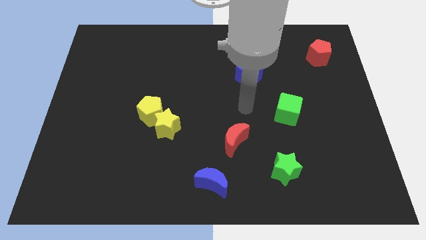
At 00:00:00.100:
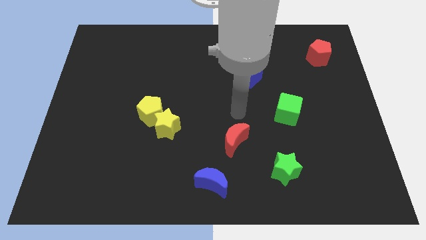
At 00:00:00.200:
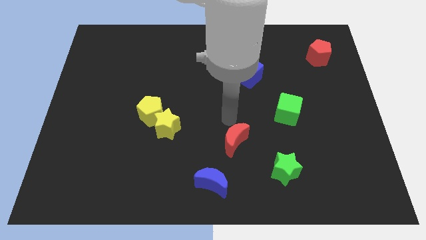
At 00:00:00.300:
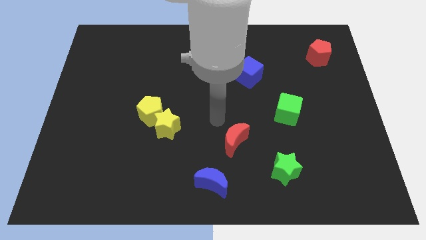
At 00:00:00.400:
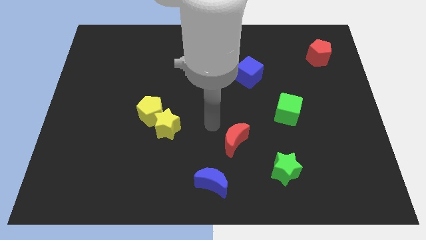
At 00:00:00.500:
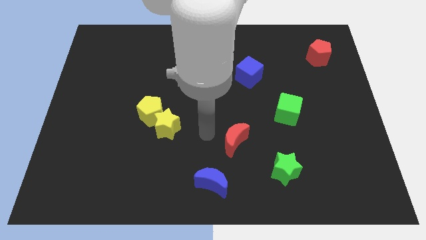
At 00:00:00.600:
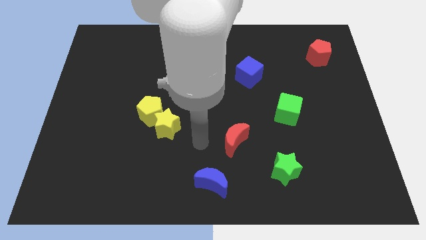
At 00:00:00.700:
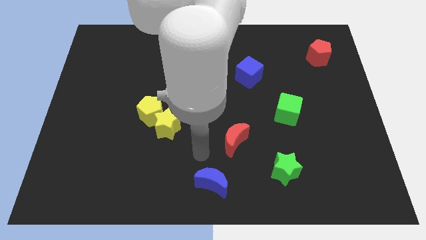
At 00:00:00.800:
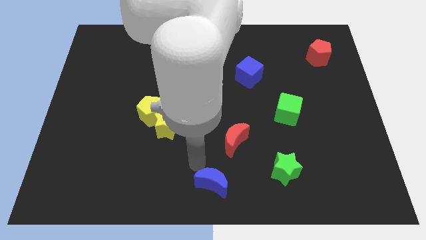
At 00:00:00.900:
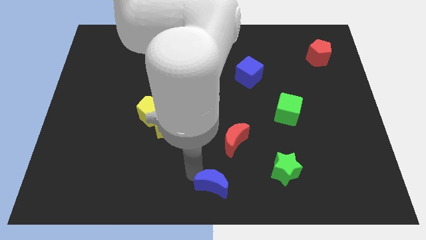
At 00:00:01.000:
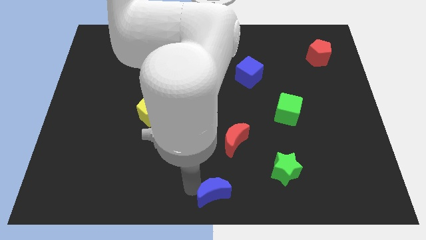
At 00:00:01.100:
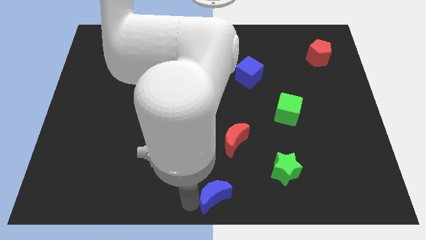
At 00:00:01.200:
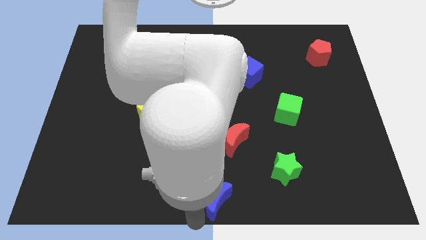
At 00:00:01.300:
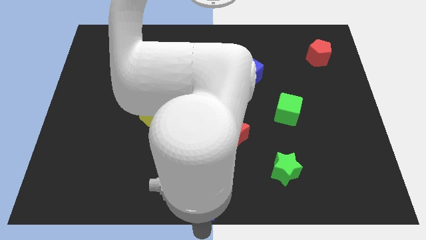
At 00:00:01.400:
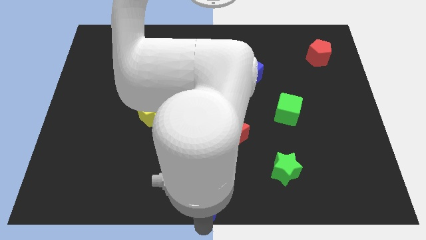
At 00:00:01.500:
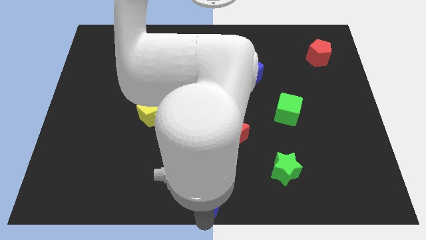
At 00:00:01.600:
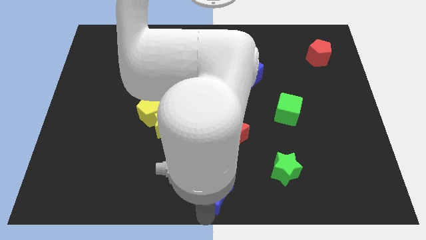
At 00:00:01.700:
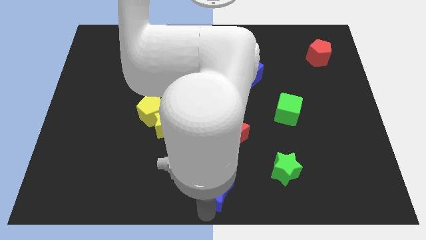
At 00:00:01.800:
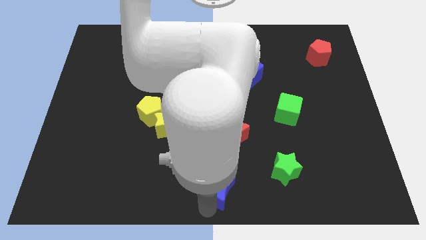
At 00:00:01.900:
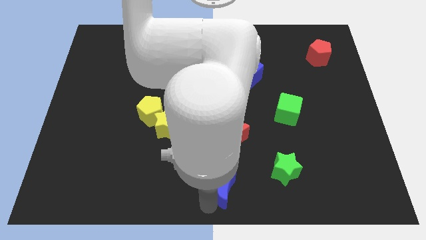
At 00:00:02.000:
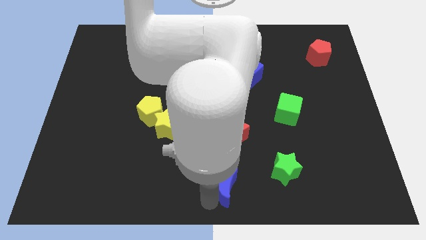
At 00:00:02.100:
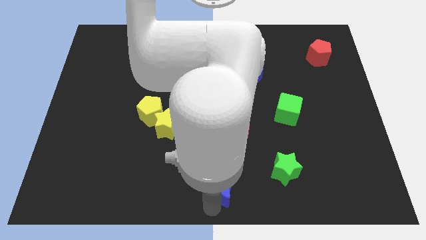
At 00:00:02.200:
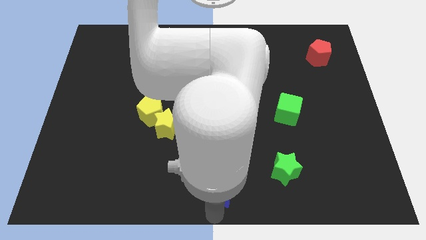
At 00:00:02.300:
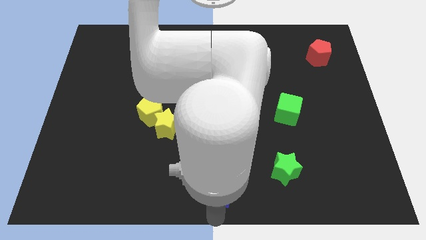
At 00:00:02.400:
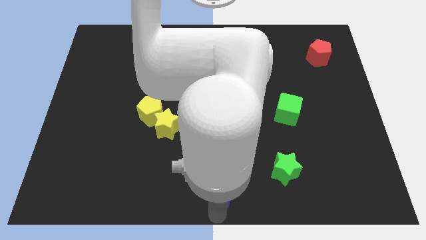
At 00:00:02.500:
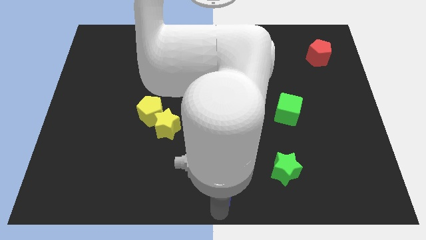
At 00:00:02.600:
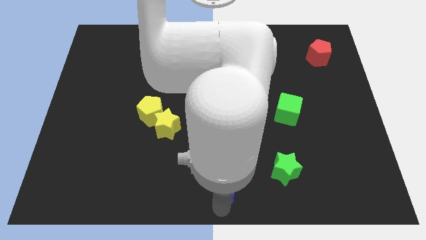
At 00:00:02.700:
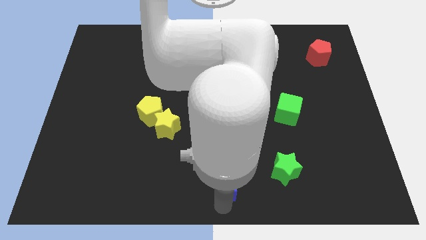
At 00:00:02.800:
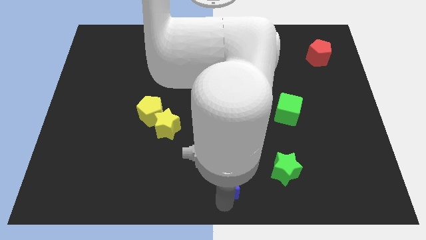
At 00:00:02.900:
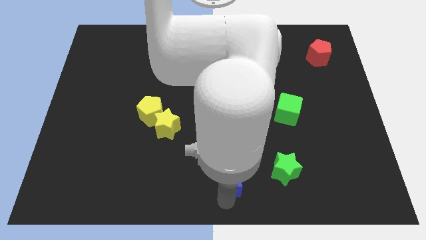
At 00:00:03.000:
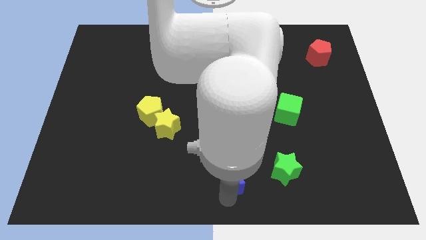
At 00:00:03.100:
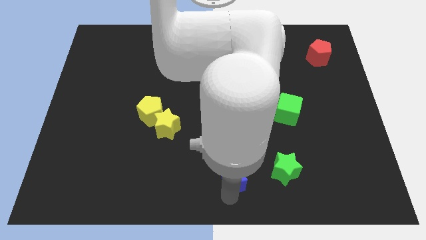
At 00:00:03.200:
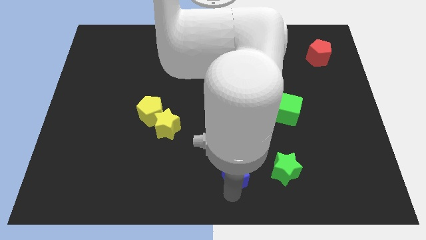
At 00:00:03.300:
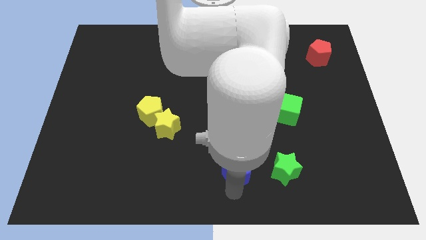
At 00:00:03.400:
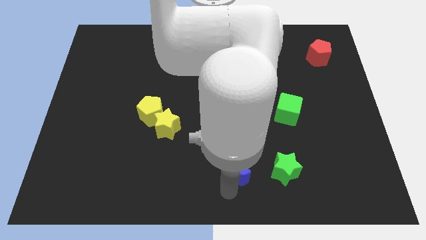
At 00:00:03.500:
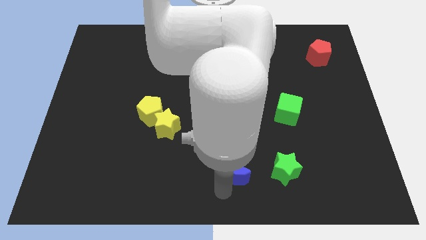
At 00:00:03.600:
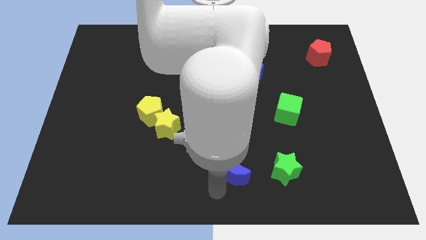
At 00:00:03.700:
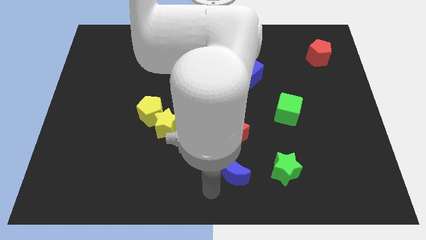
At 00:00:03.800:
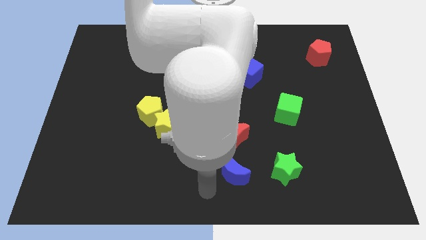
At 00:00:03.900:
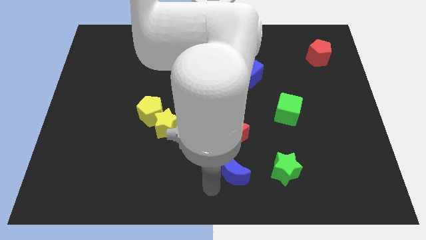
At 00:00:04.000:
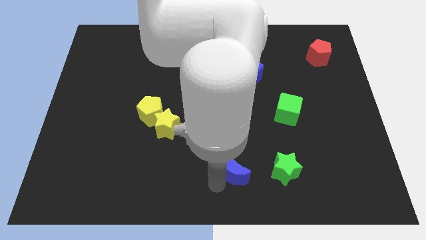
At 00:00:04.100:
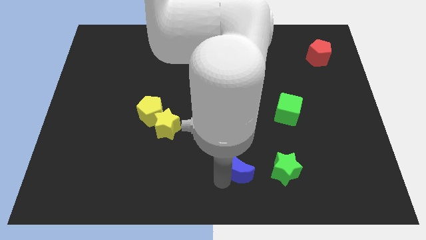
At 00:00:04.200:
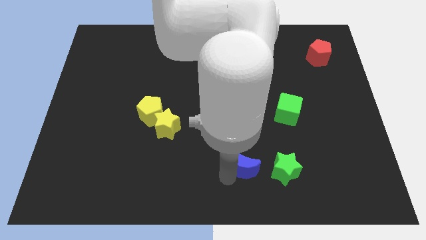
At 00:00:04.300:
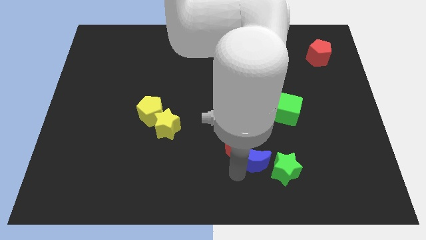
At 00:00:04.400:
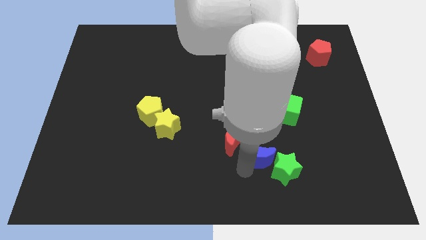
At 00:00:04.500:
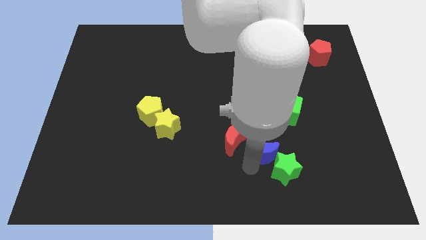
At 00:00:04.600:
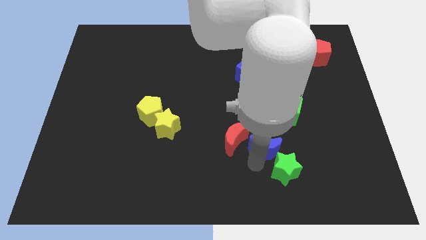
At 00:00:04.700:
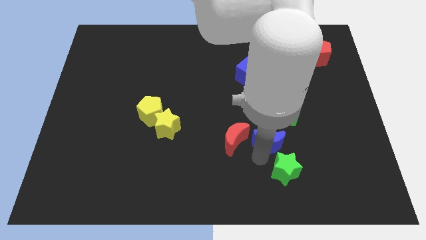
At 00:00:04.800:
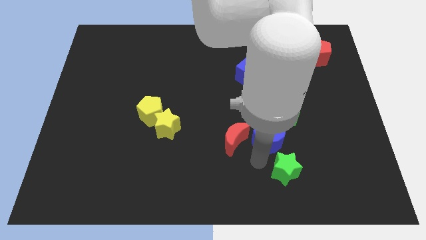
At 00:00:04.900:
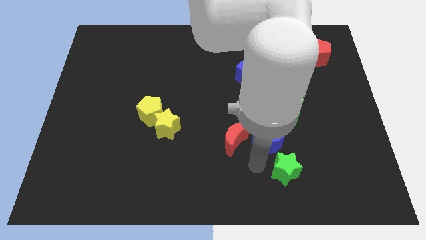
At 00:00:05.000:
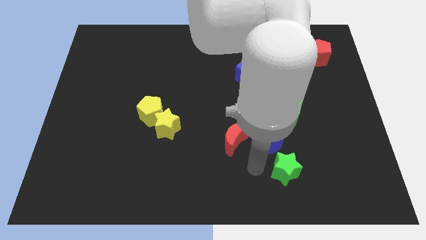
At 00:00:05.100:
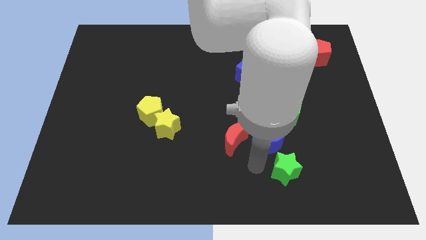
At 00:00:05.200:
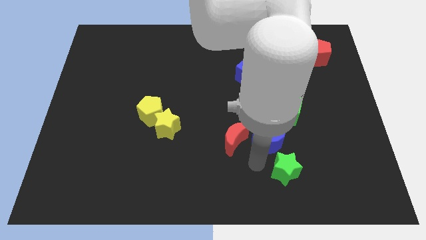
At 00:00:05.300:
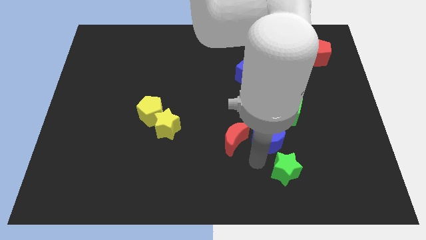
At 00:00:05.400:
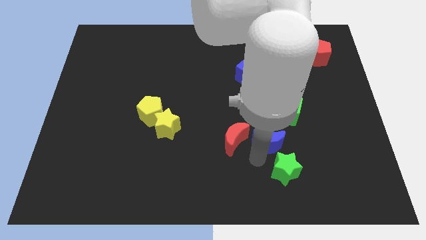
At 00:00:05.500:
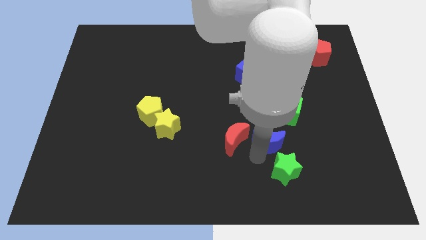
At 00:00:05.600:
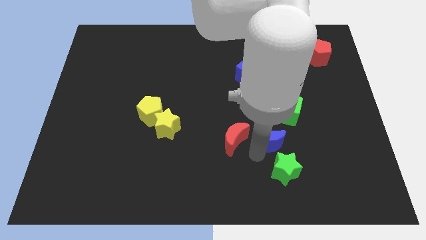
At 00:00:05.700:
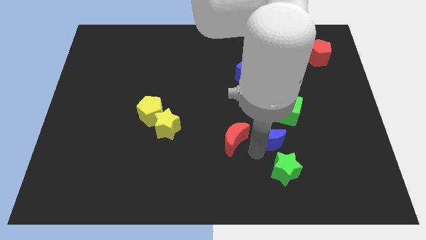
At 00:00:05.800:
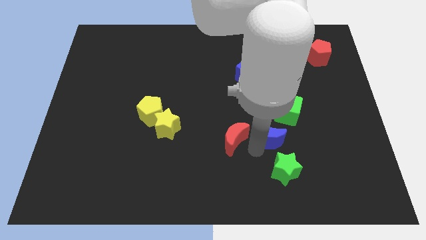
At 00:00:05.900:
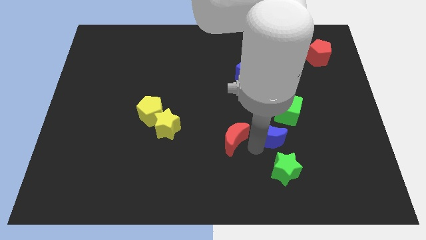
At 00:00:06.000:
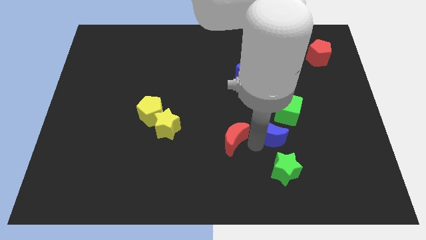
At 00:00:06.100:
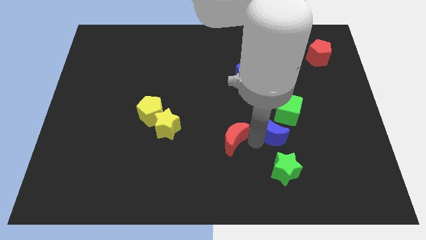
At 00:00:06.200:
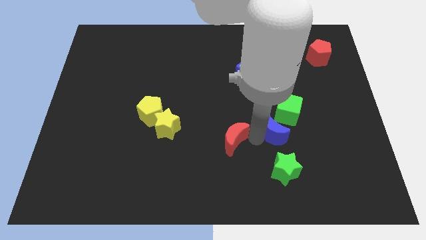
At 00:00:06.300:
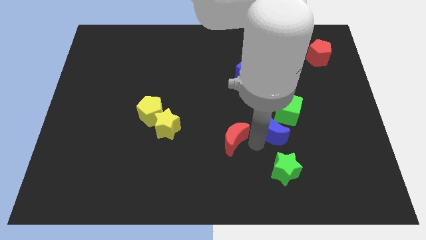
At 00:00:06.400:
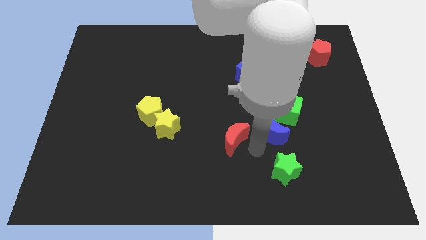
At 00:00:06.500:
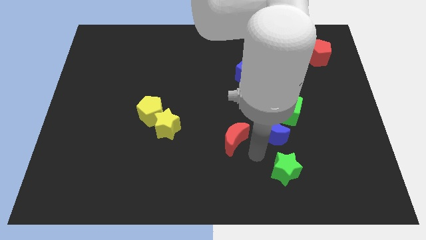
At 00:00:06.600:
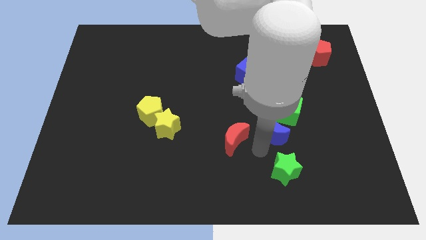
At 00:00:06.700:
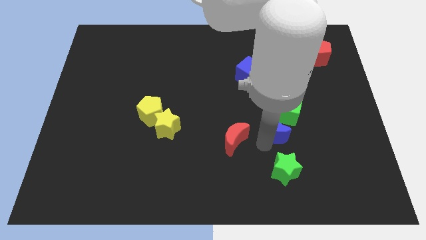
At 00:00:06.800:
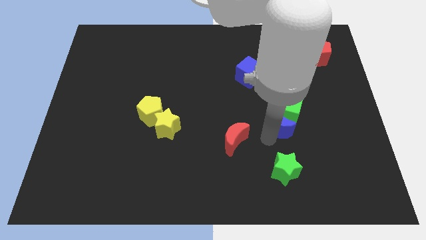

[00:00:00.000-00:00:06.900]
move the blue moon to the green cube
